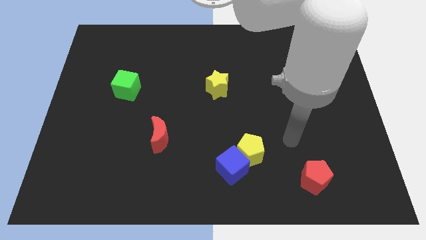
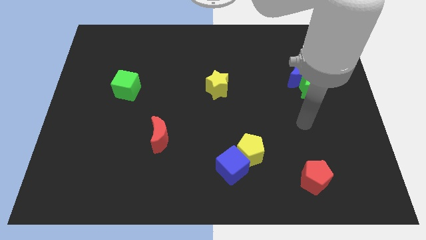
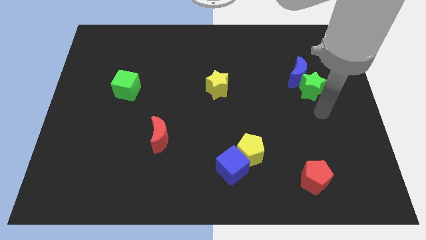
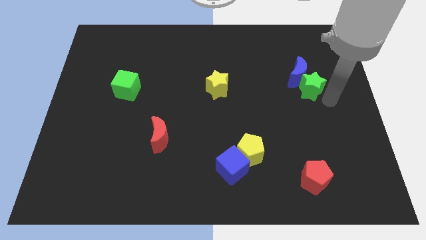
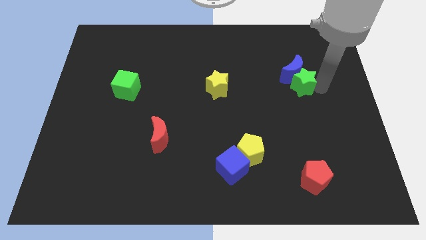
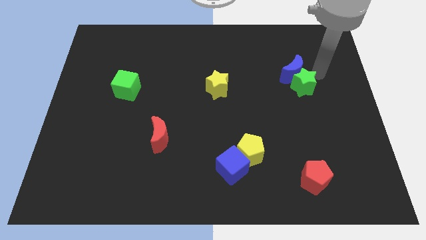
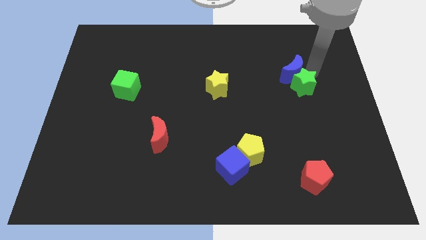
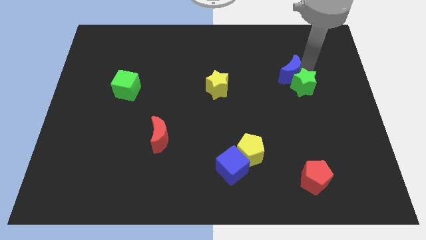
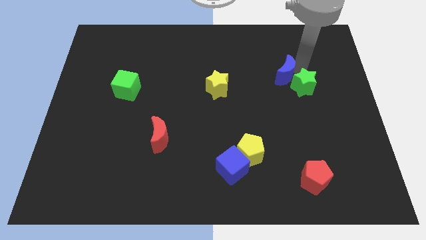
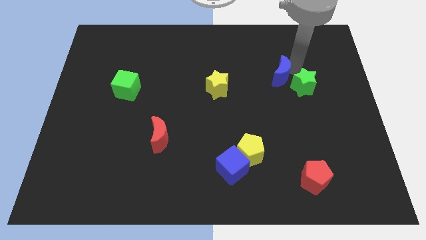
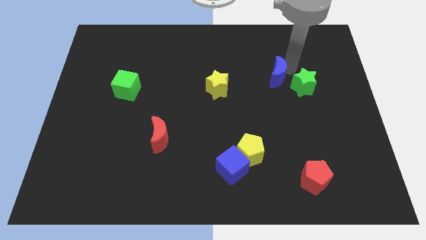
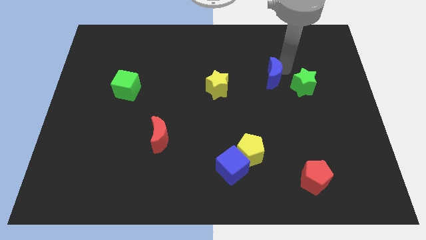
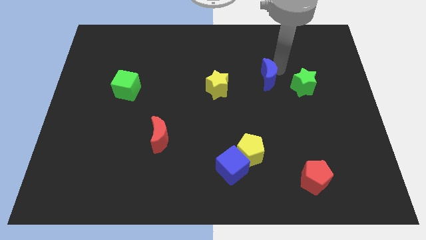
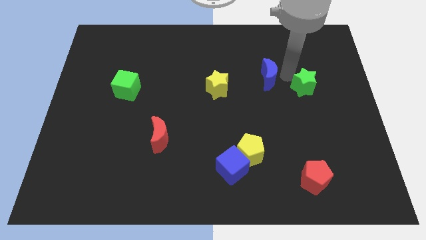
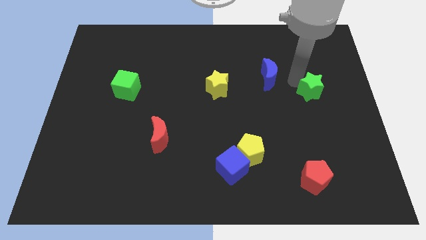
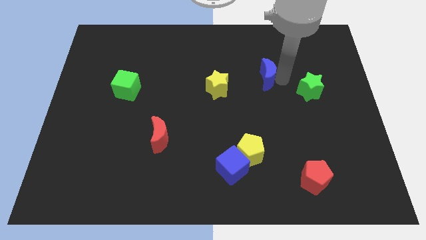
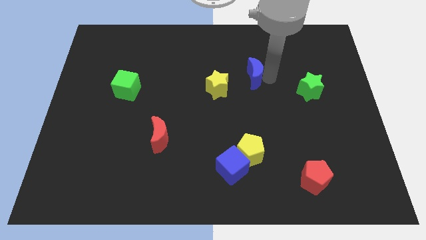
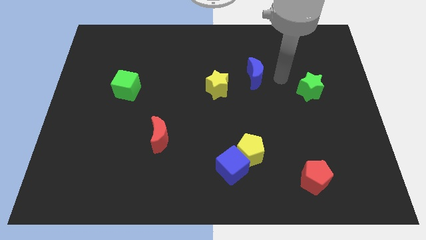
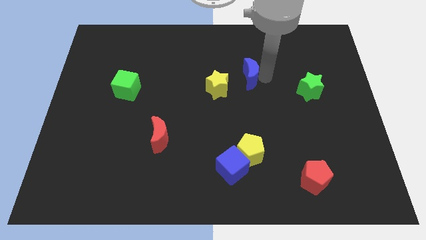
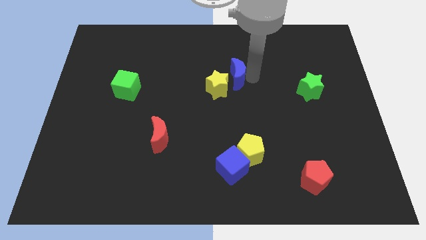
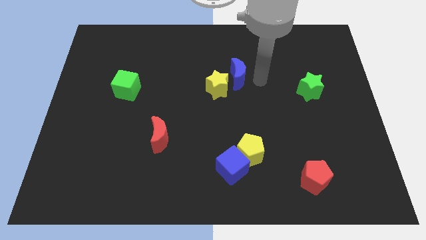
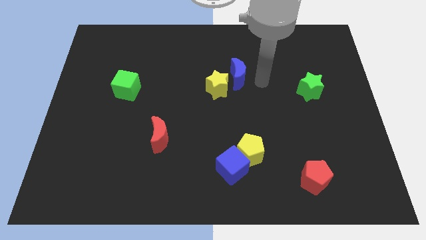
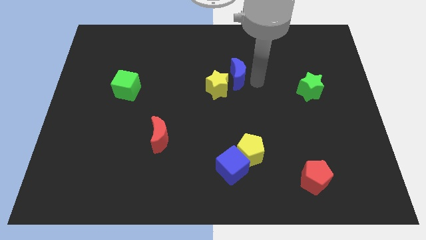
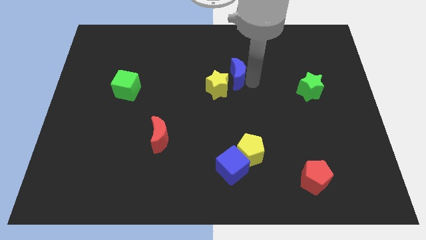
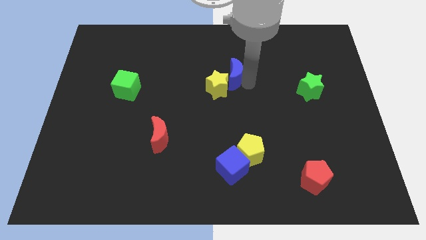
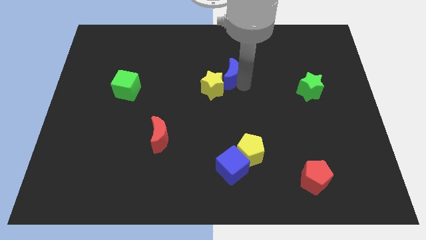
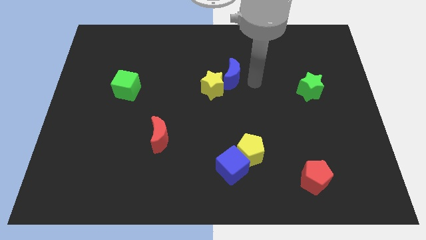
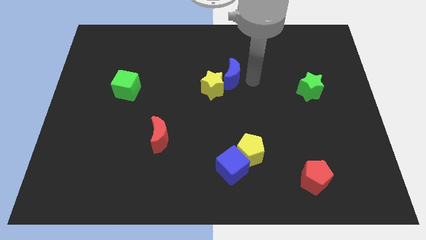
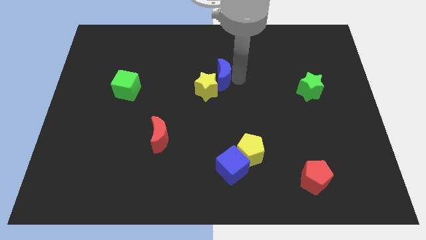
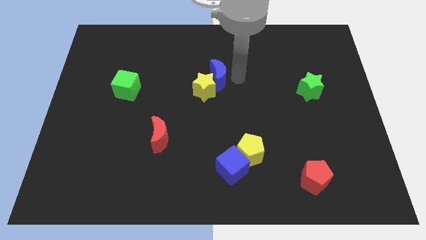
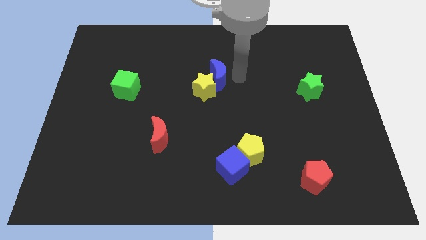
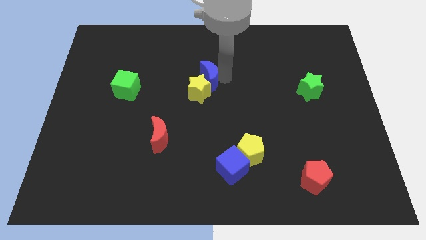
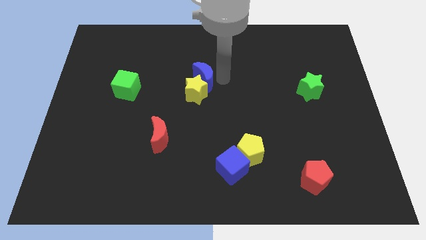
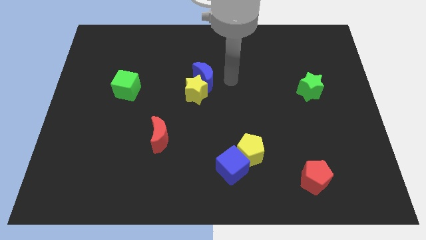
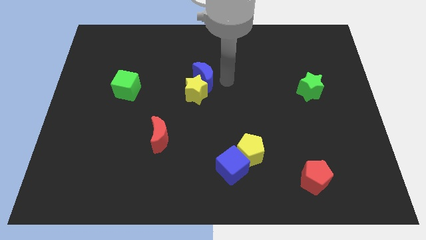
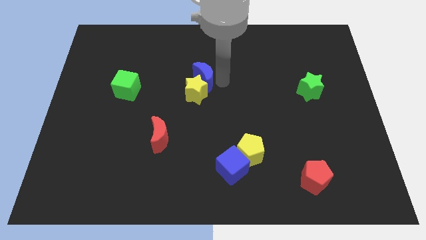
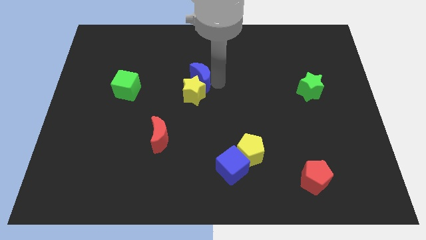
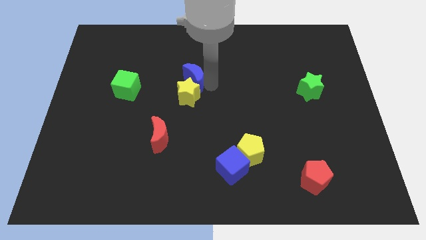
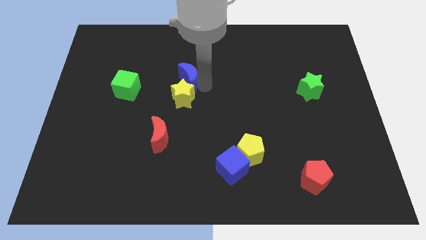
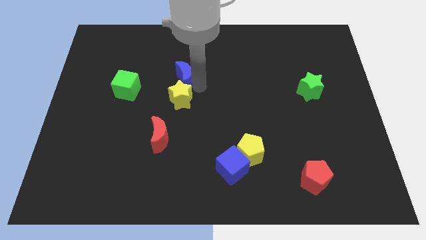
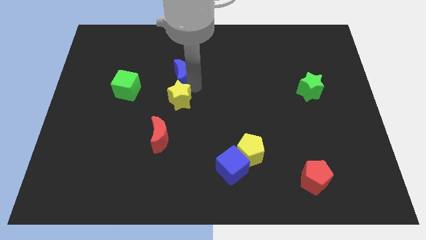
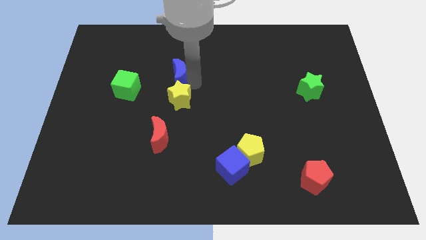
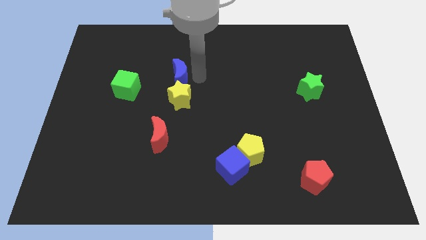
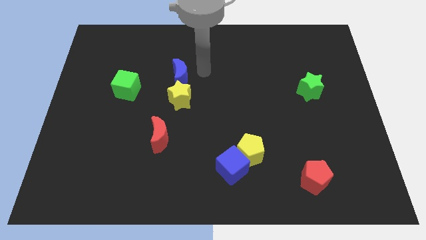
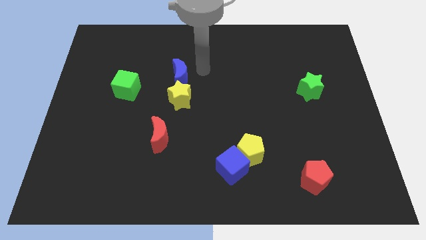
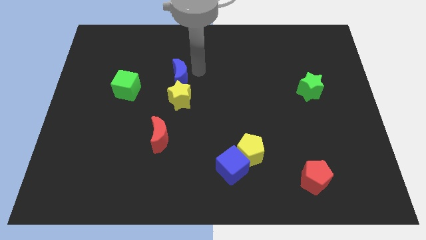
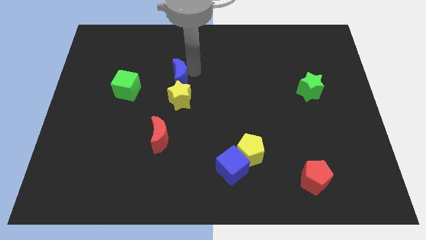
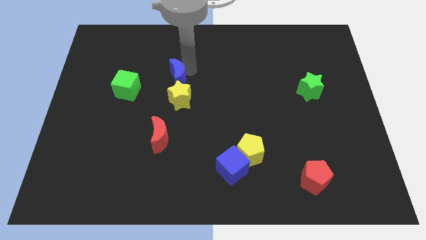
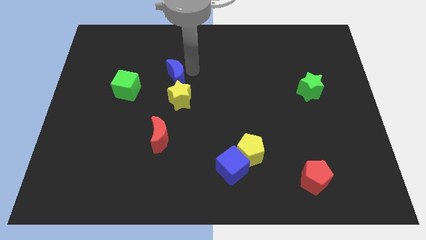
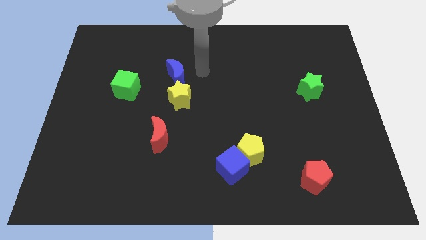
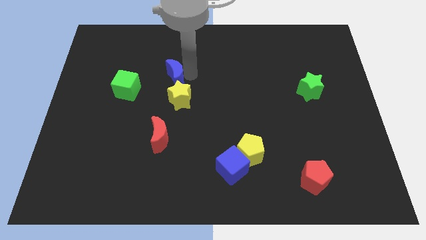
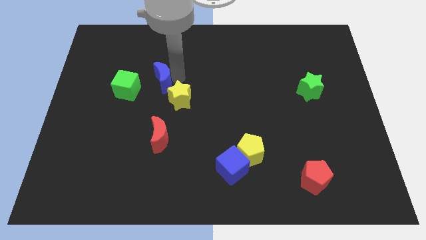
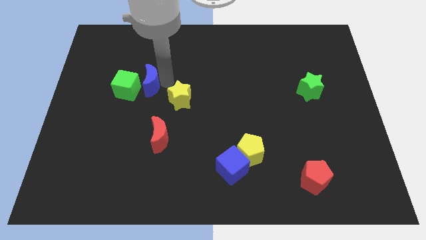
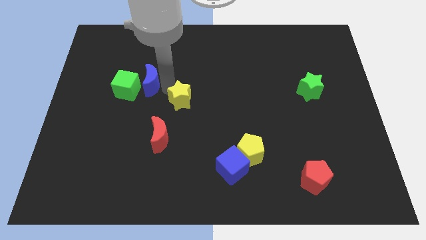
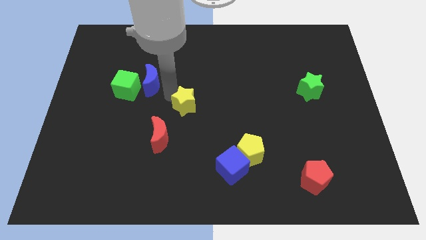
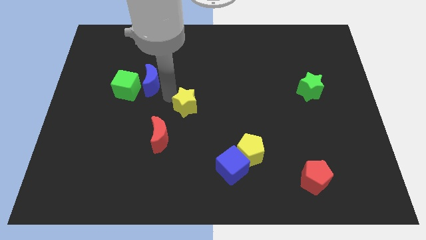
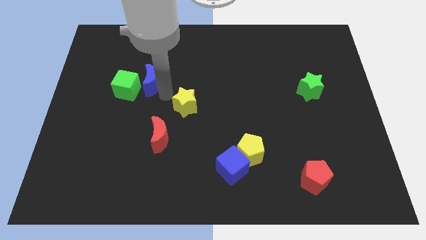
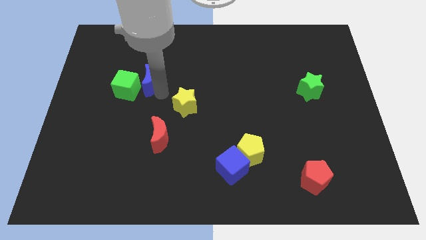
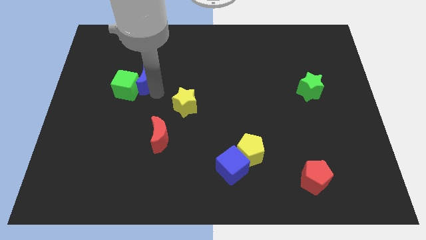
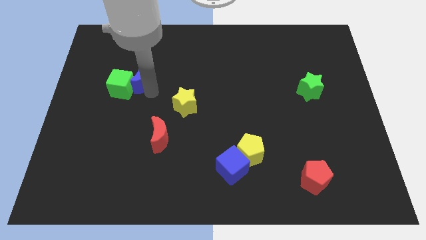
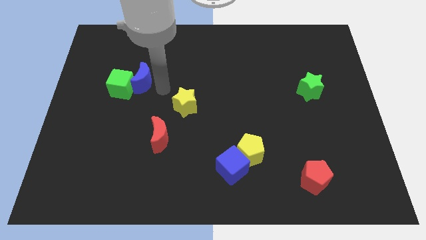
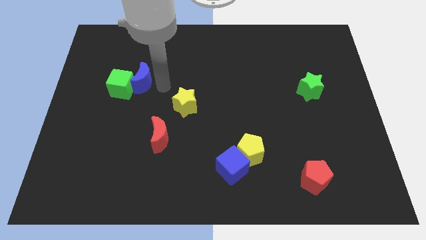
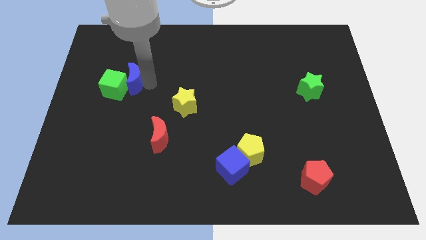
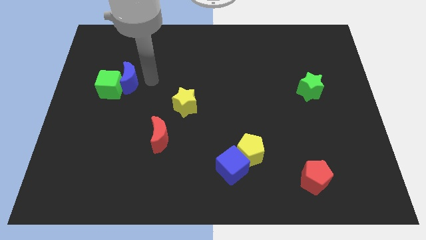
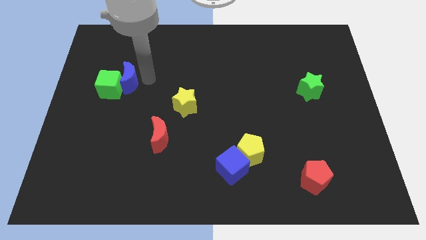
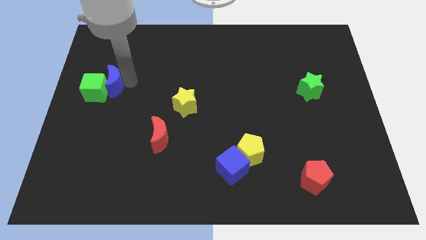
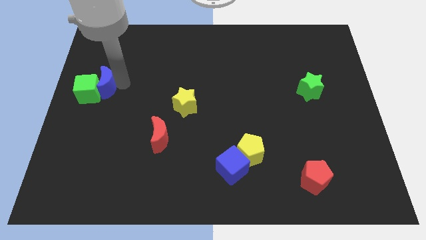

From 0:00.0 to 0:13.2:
move the blue moon to the left side
